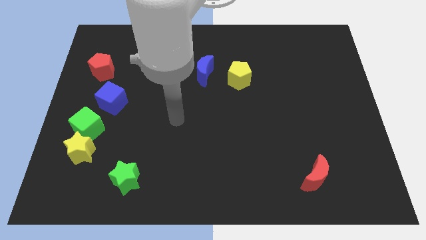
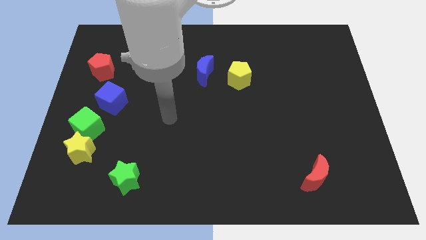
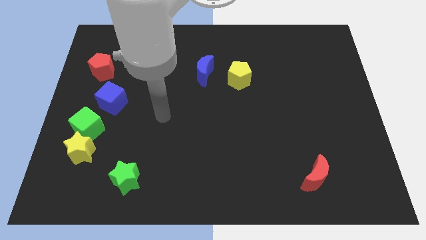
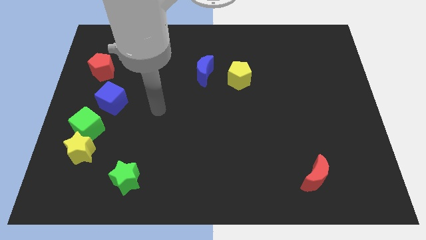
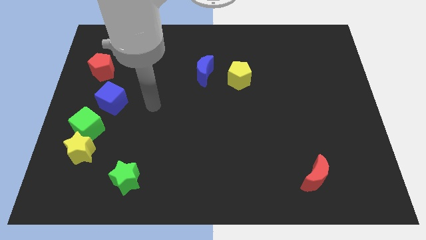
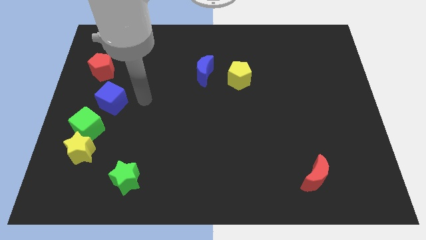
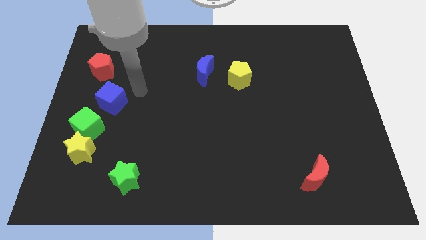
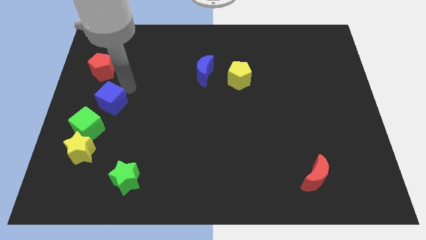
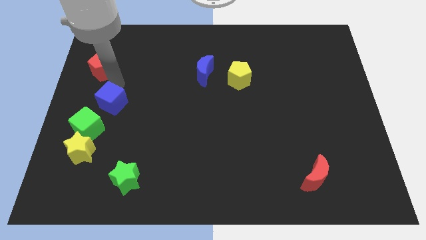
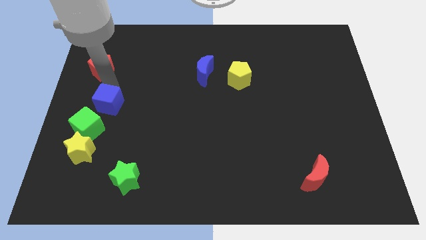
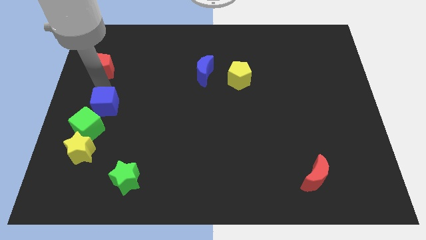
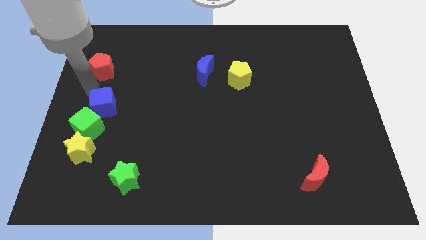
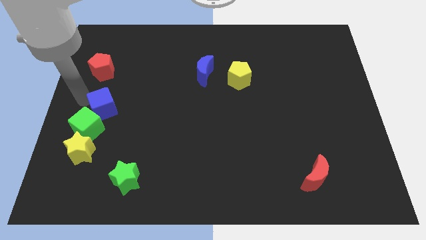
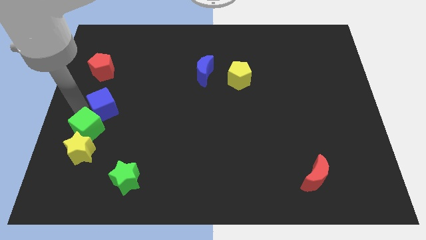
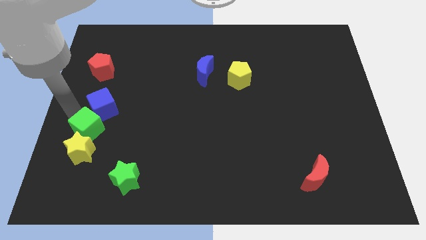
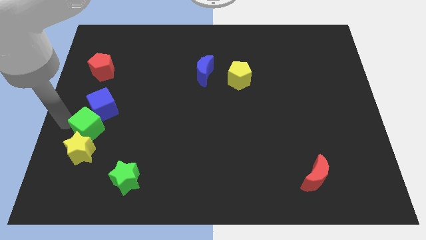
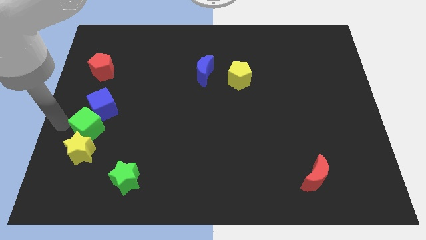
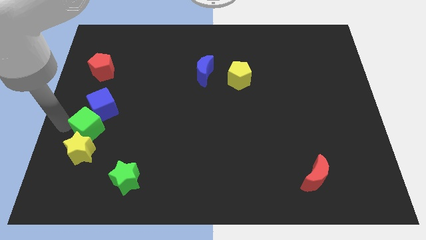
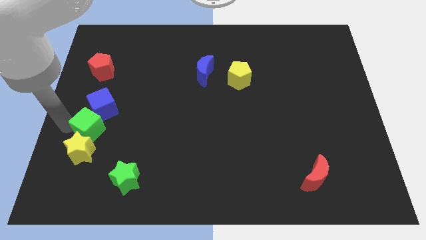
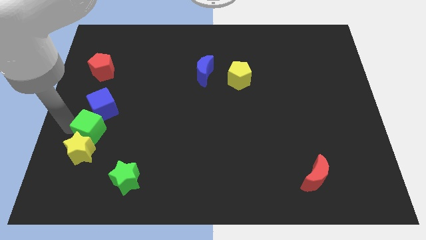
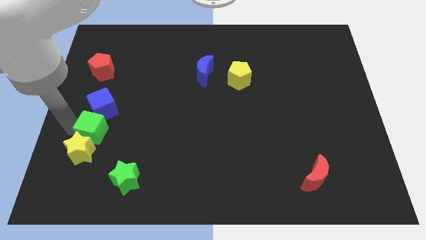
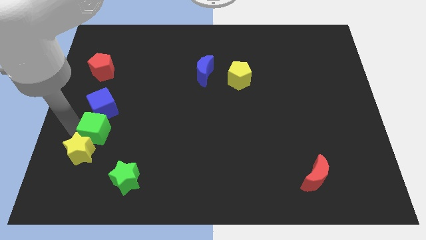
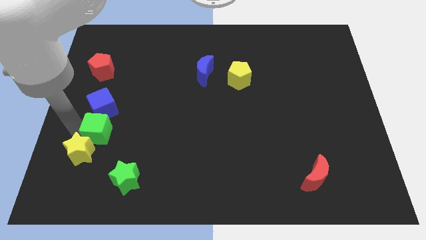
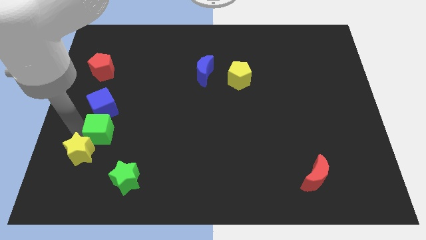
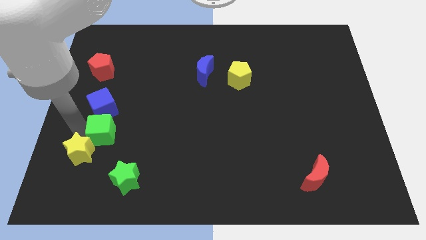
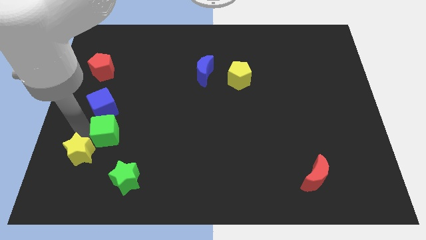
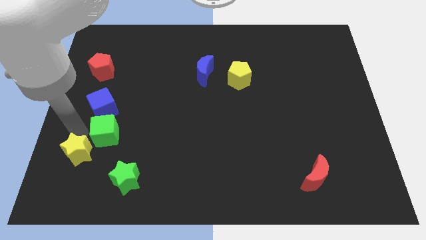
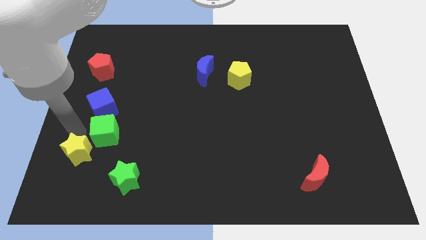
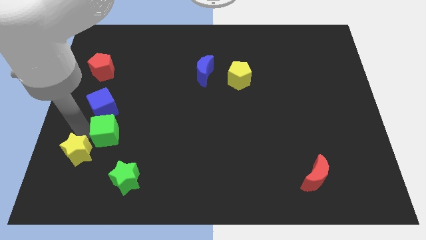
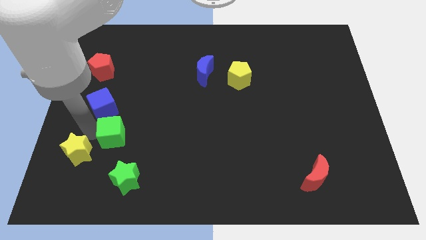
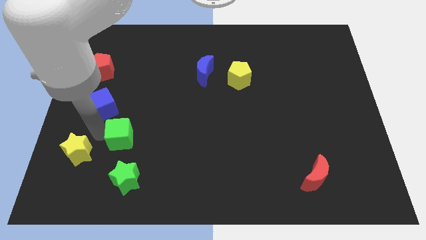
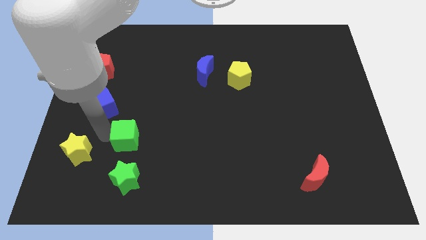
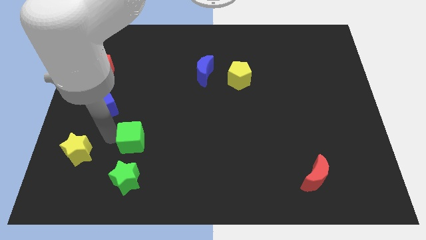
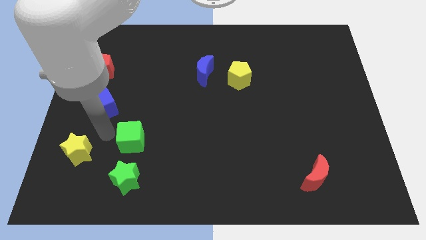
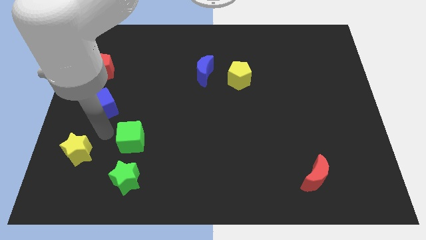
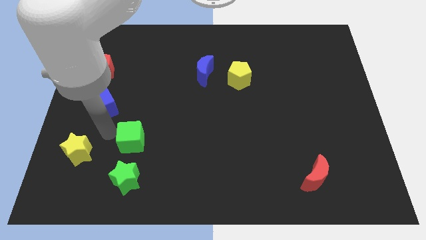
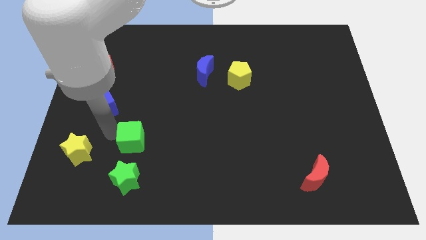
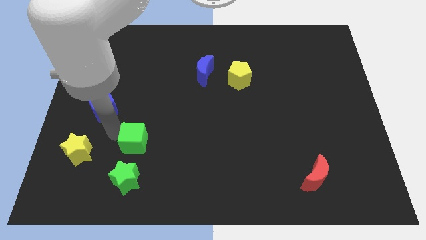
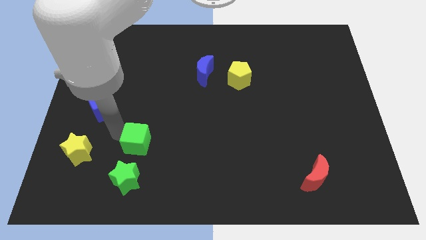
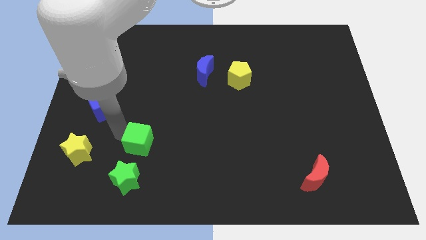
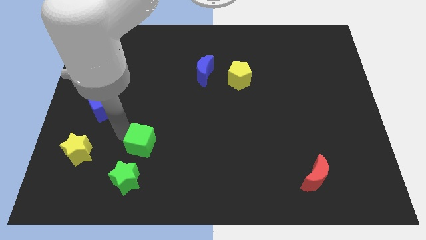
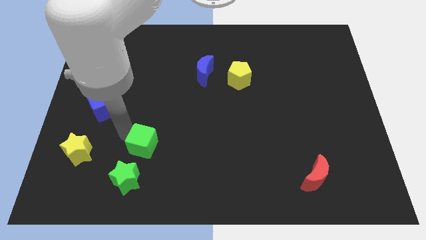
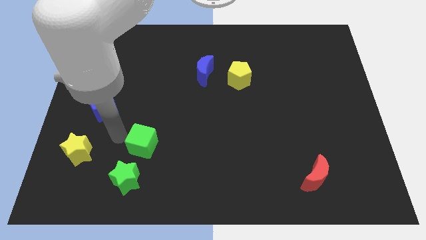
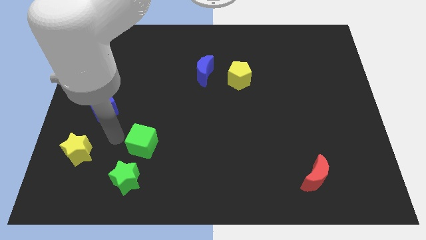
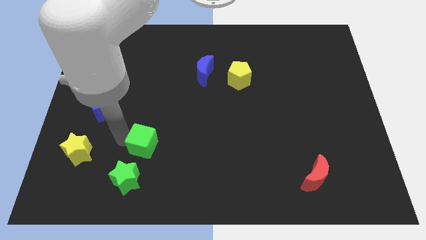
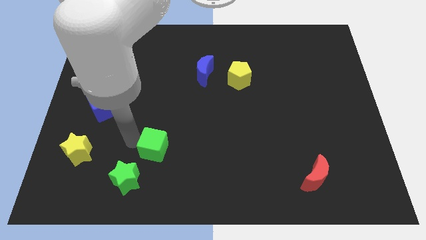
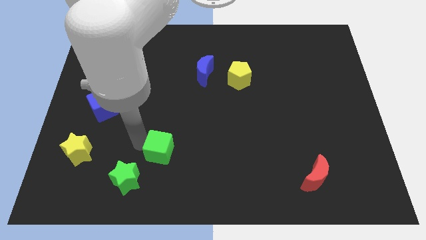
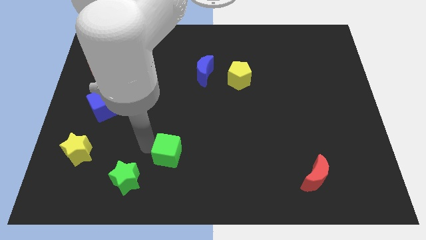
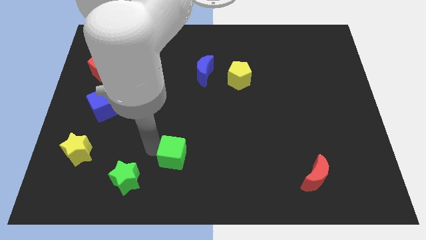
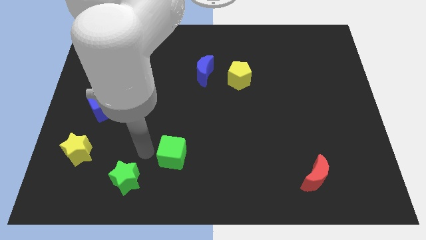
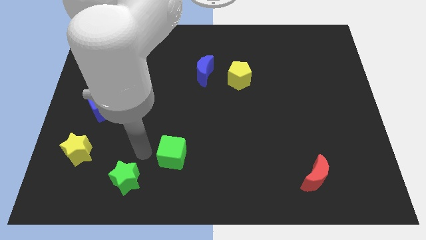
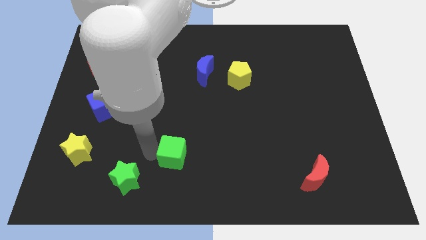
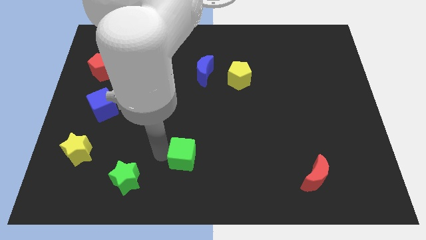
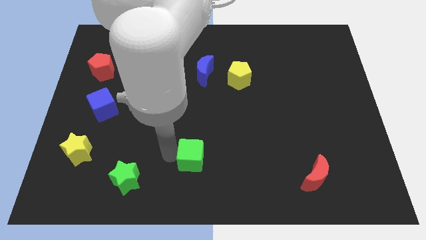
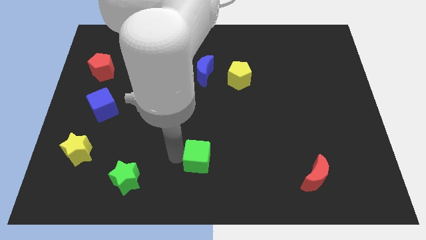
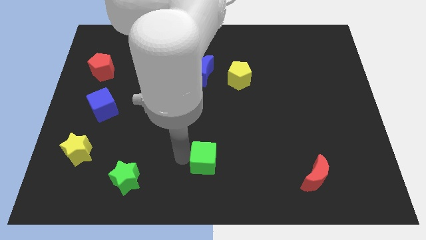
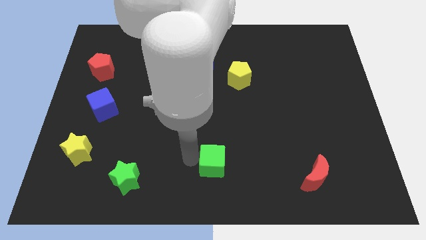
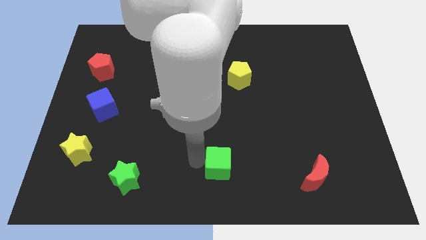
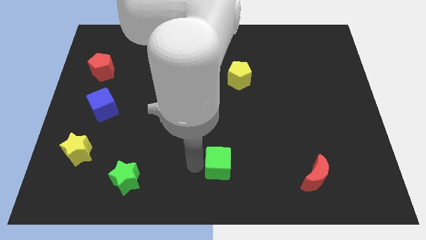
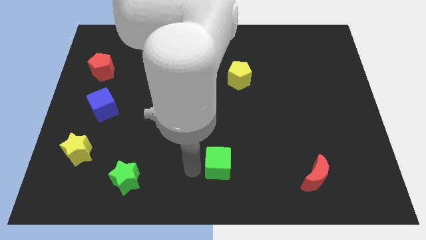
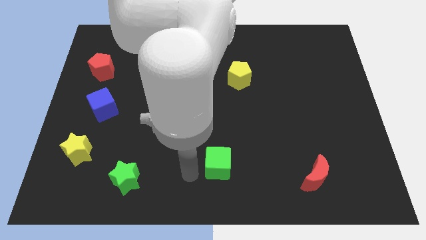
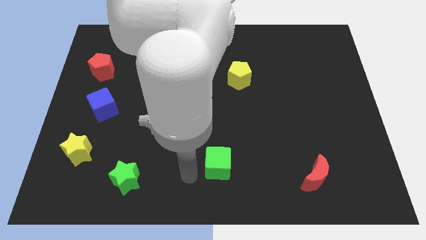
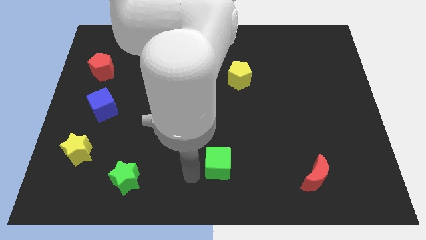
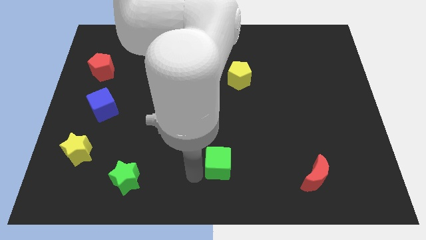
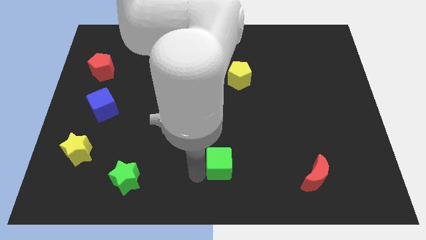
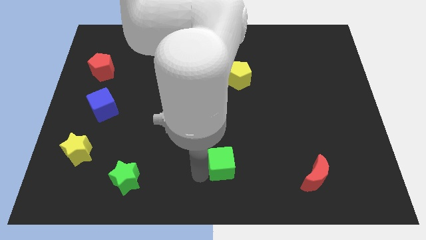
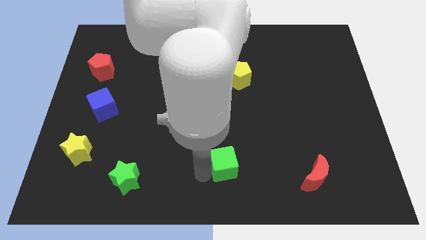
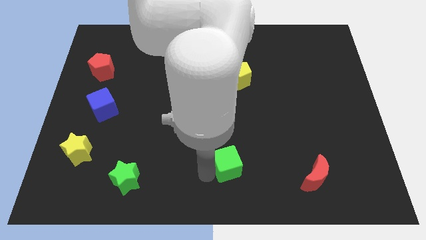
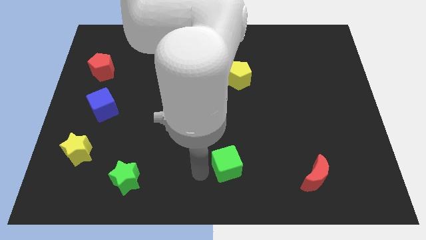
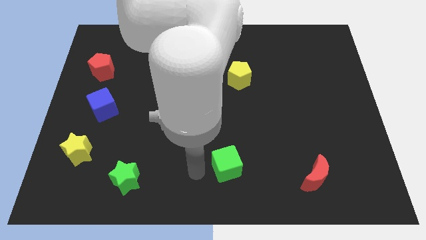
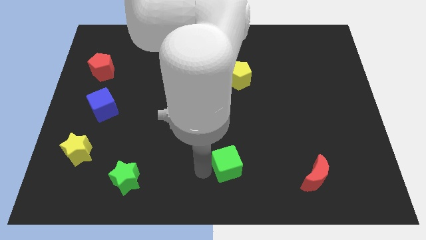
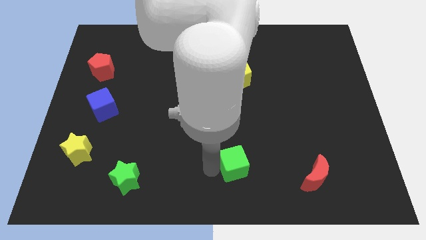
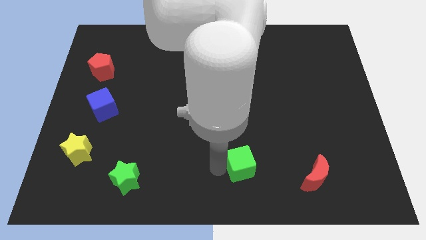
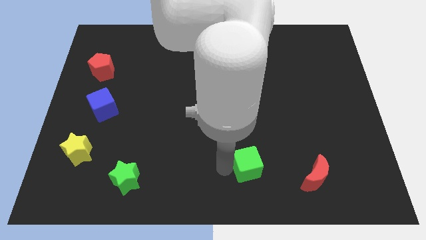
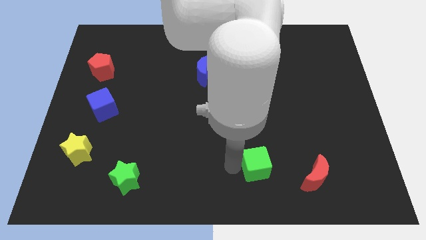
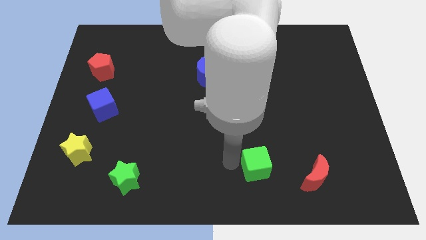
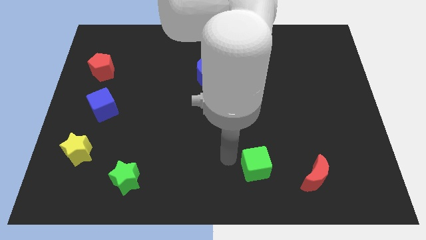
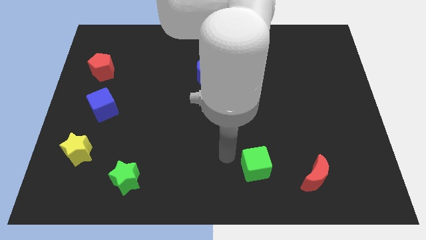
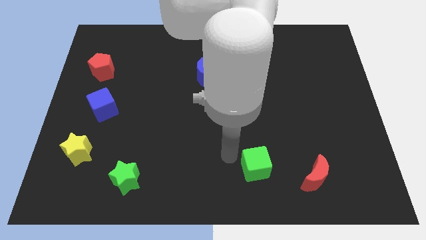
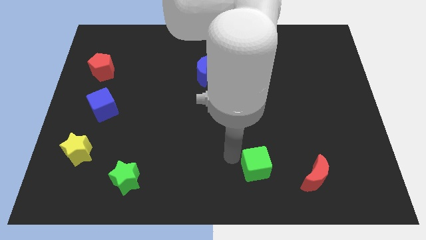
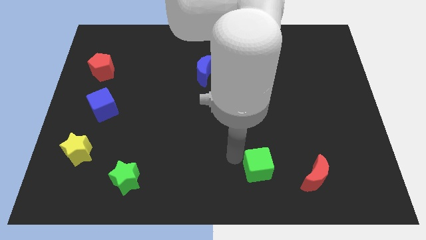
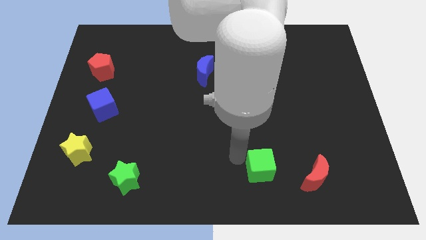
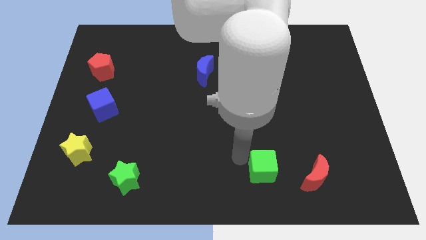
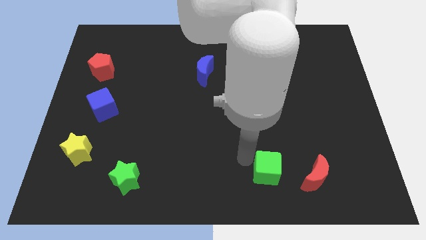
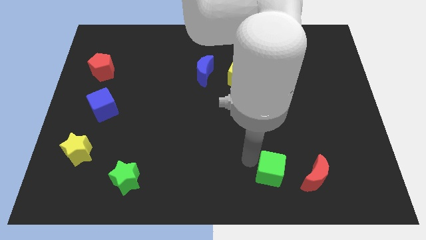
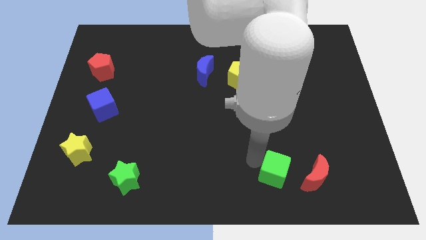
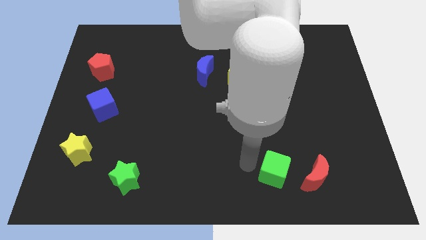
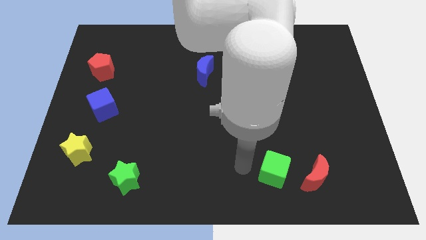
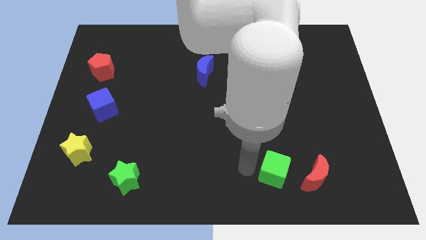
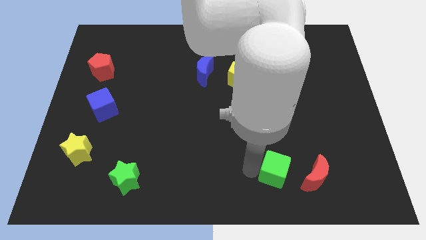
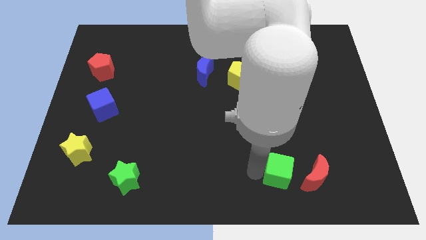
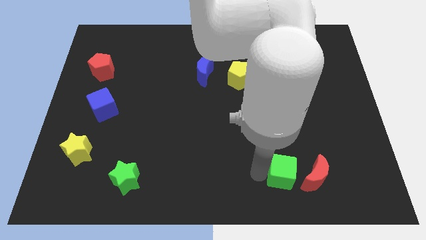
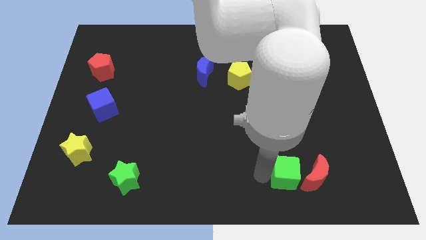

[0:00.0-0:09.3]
push the green cube to the red moon
